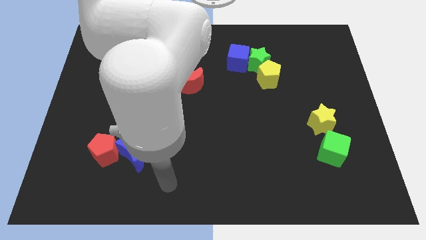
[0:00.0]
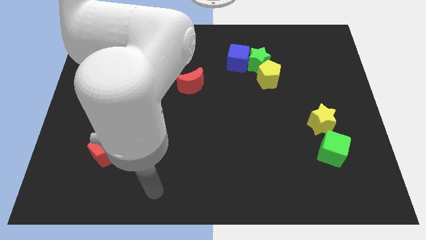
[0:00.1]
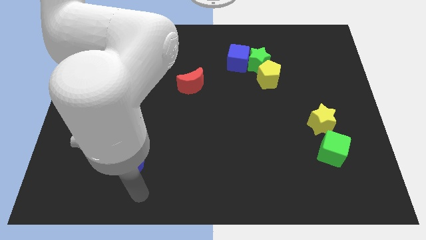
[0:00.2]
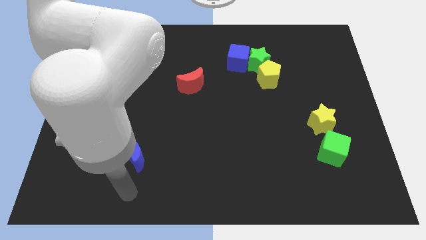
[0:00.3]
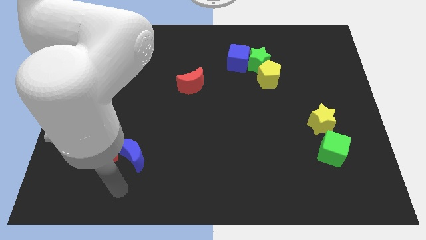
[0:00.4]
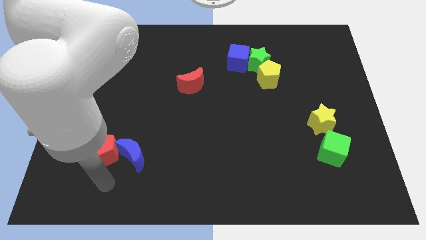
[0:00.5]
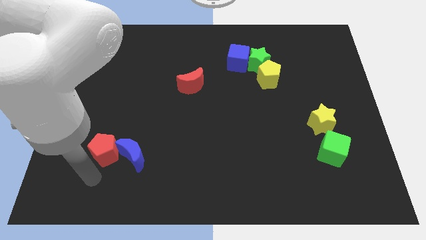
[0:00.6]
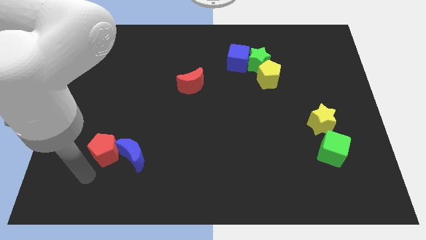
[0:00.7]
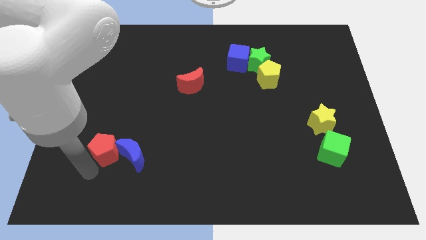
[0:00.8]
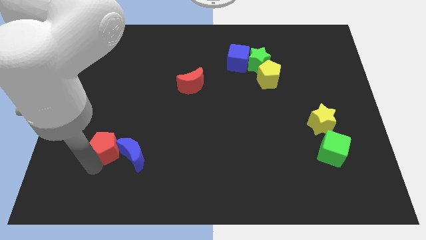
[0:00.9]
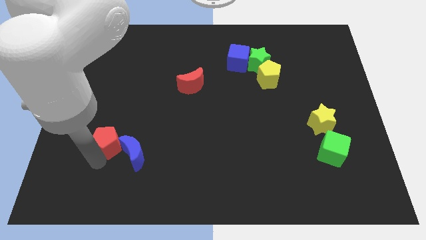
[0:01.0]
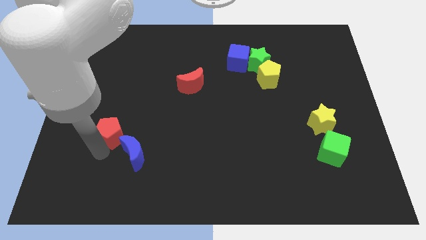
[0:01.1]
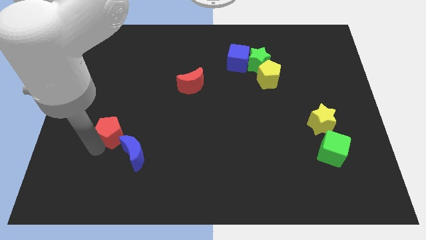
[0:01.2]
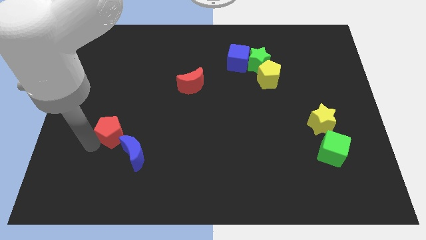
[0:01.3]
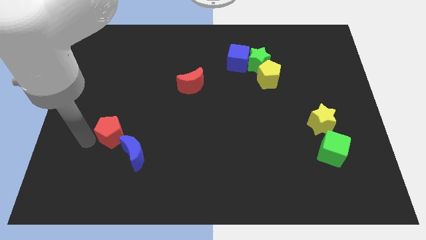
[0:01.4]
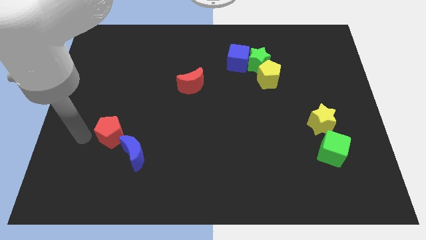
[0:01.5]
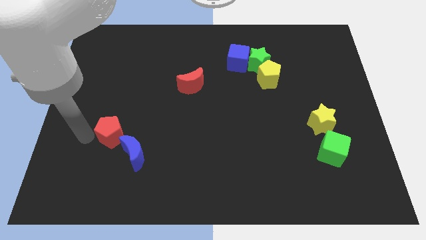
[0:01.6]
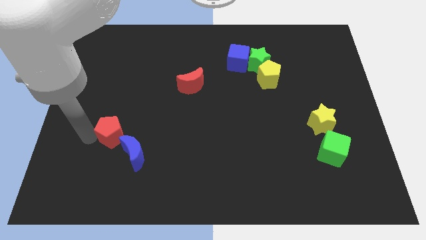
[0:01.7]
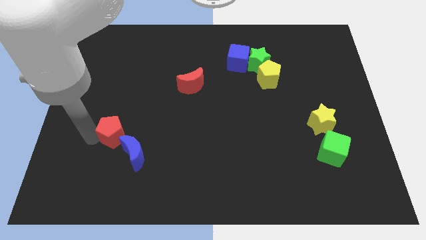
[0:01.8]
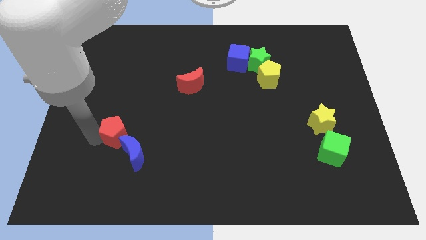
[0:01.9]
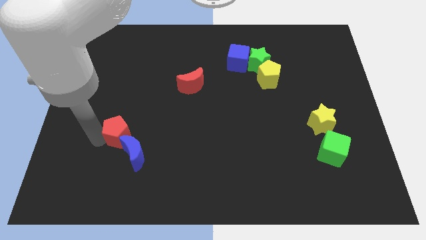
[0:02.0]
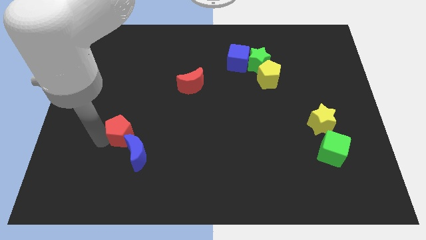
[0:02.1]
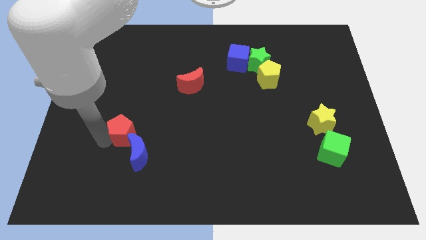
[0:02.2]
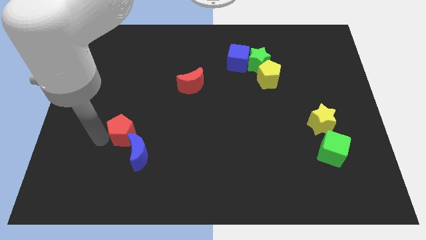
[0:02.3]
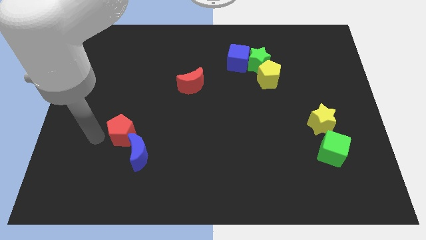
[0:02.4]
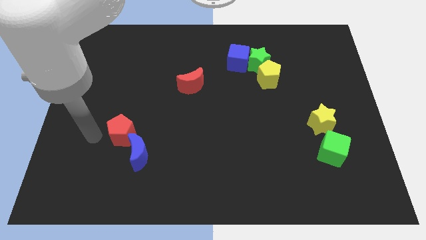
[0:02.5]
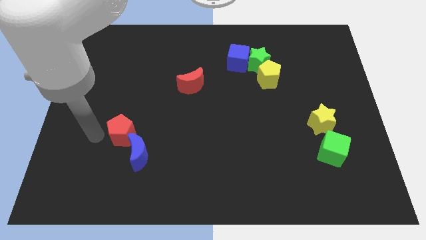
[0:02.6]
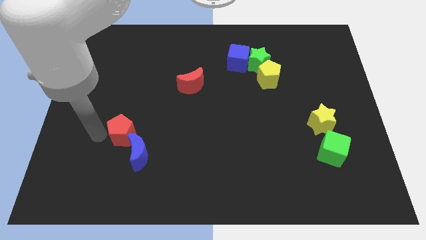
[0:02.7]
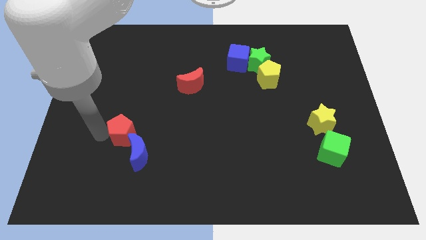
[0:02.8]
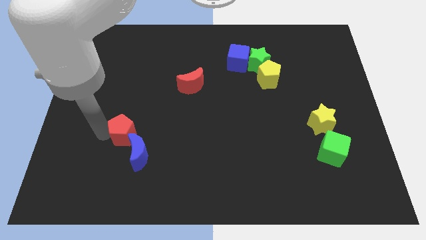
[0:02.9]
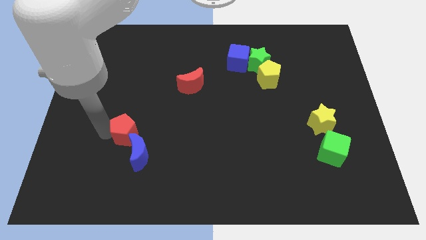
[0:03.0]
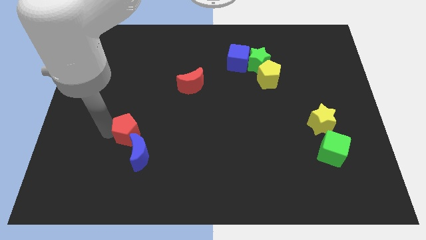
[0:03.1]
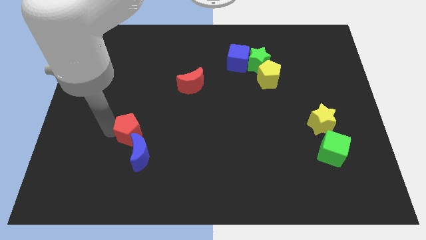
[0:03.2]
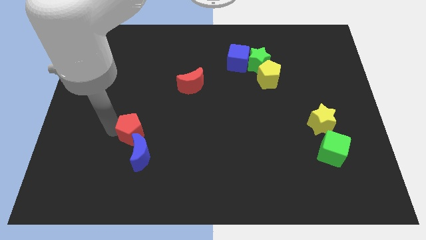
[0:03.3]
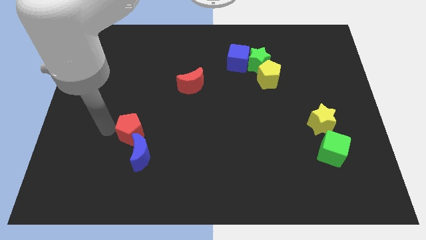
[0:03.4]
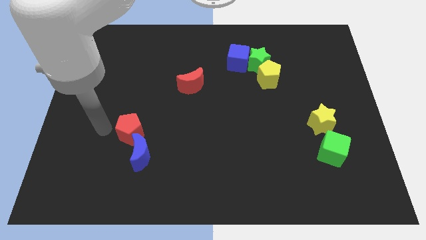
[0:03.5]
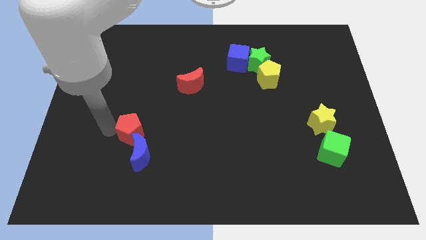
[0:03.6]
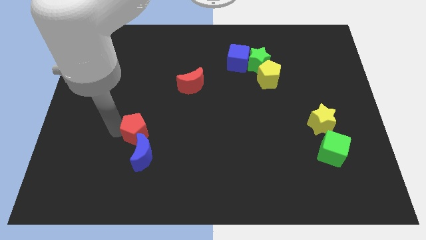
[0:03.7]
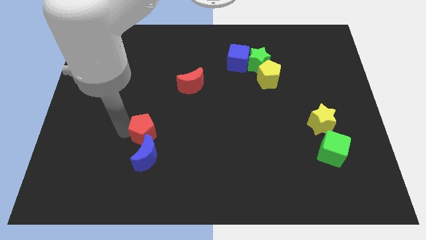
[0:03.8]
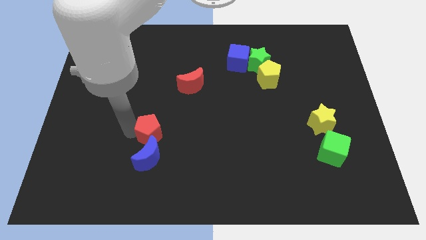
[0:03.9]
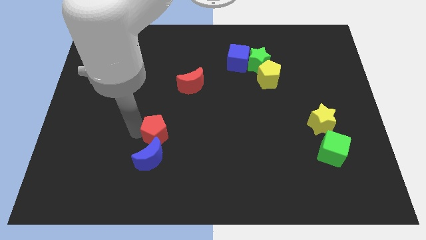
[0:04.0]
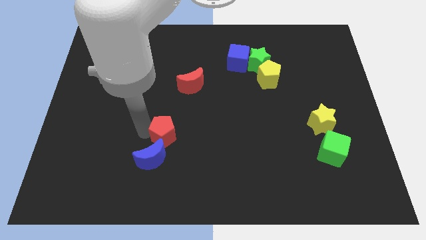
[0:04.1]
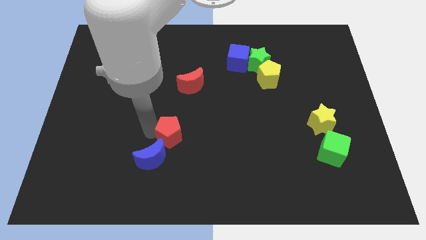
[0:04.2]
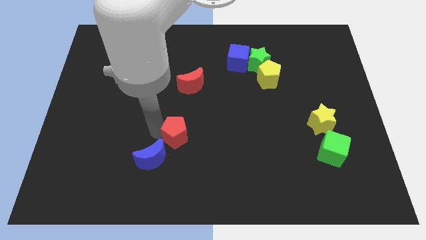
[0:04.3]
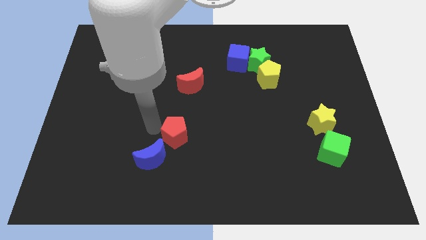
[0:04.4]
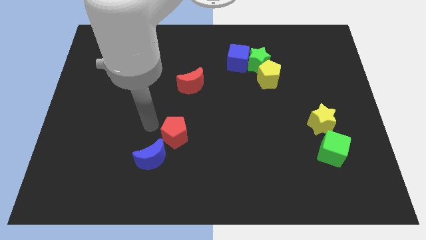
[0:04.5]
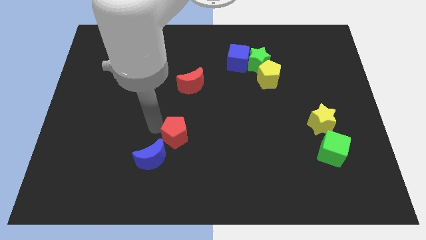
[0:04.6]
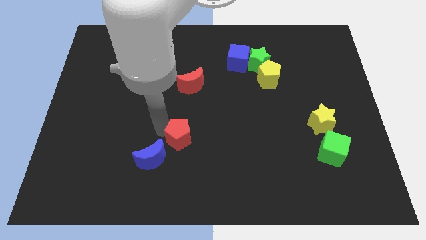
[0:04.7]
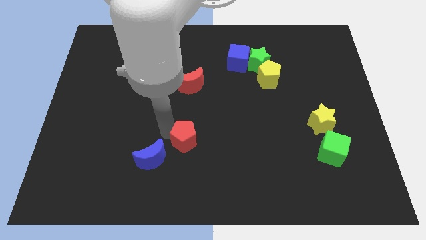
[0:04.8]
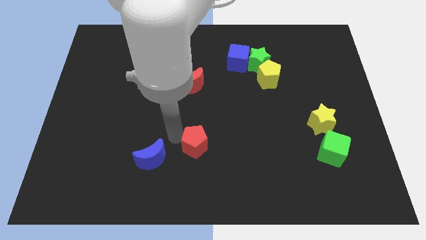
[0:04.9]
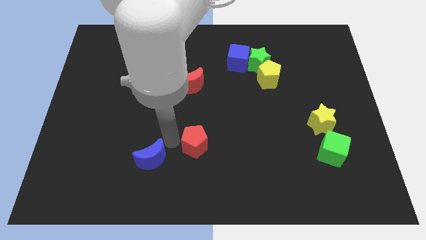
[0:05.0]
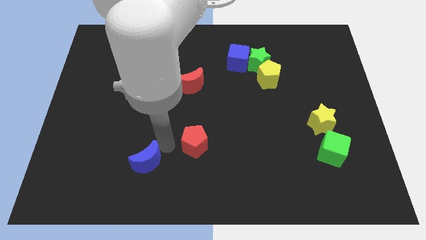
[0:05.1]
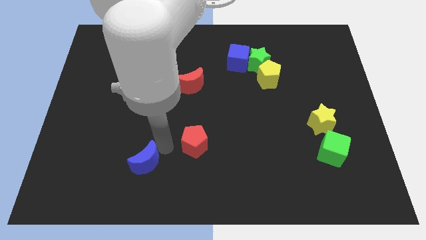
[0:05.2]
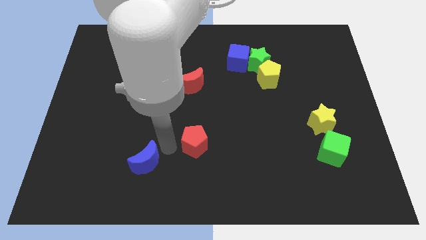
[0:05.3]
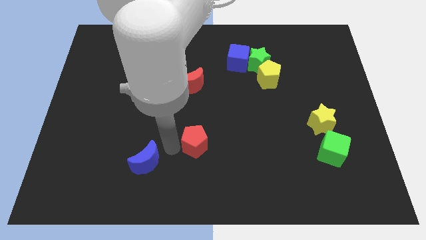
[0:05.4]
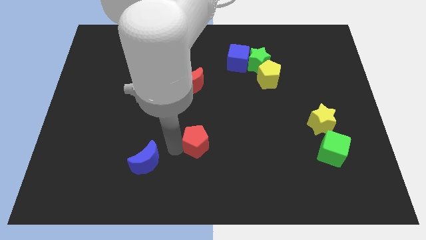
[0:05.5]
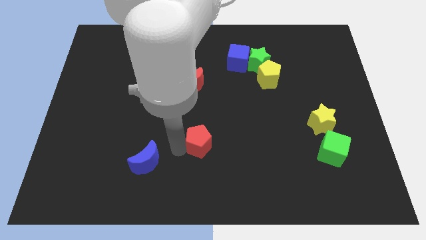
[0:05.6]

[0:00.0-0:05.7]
push the red pentagon right

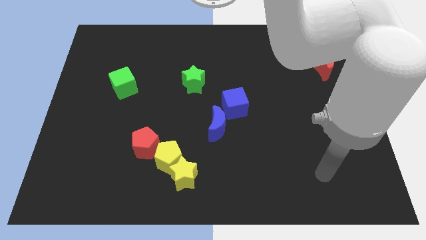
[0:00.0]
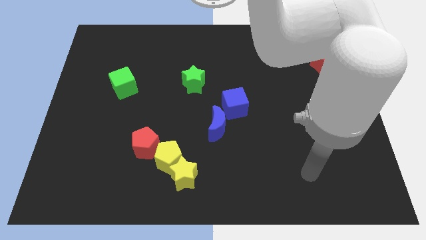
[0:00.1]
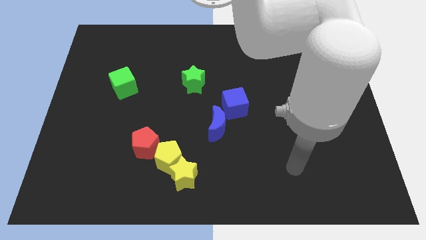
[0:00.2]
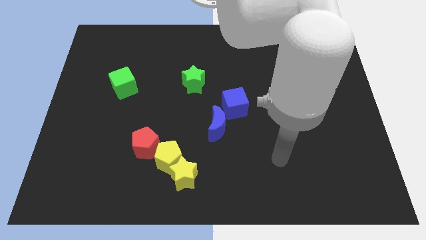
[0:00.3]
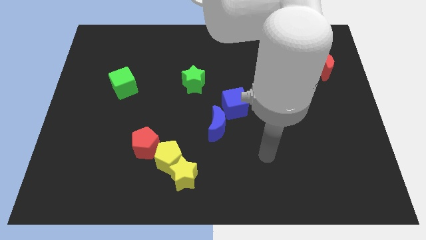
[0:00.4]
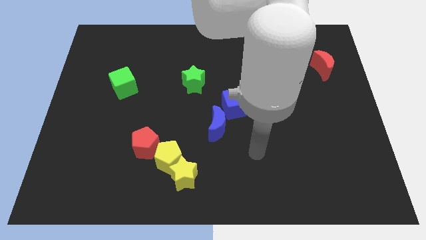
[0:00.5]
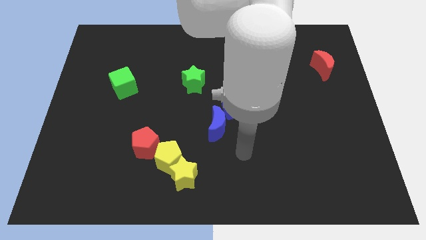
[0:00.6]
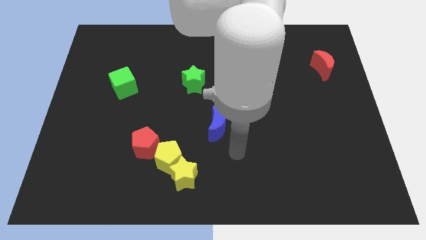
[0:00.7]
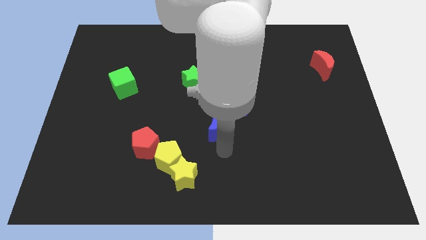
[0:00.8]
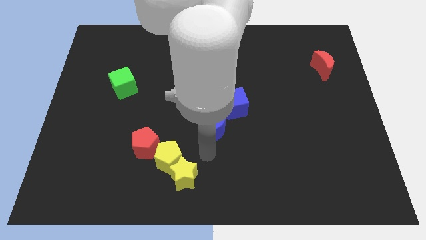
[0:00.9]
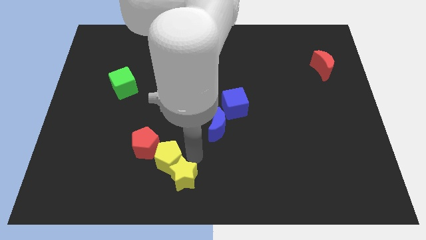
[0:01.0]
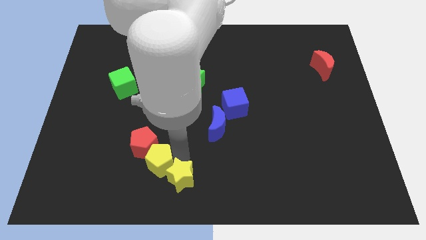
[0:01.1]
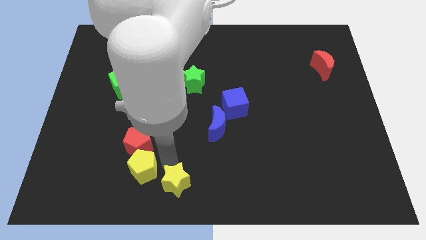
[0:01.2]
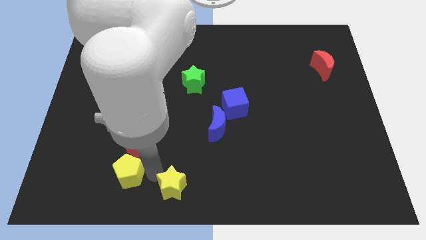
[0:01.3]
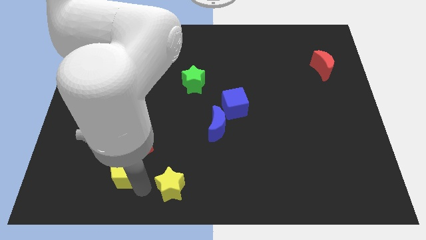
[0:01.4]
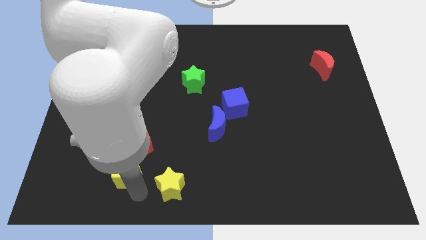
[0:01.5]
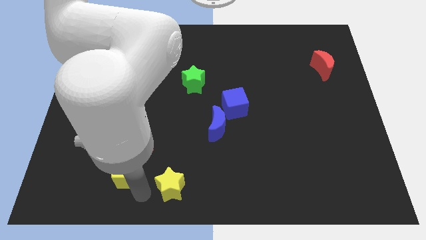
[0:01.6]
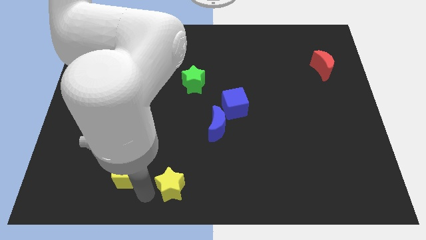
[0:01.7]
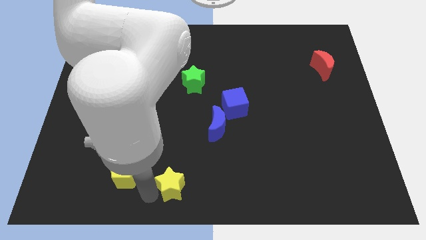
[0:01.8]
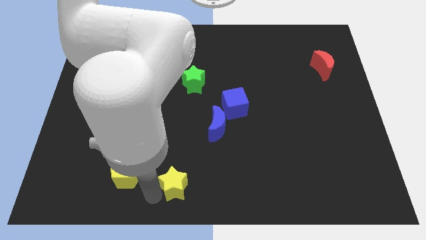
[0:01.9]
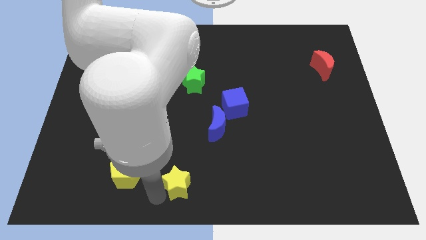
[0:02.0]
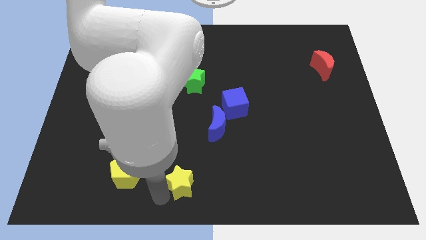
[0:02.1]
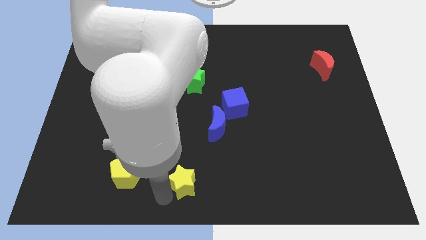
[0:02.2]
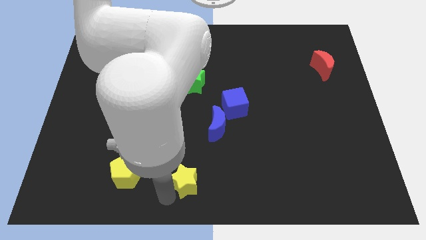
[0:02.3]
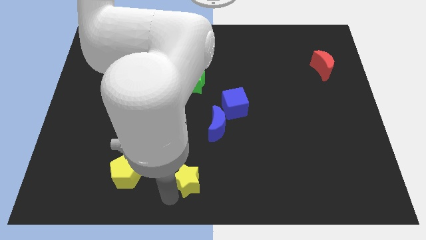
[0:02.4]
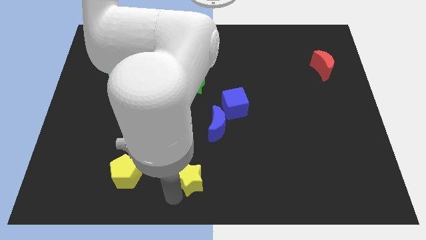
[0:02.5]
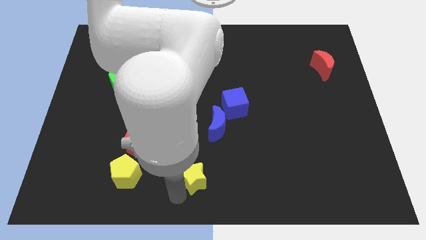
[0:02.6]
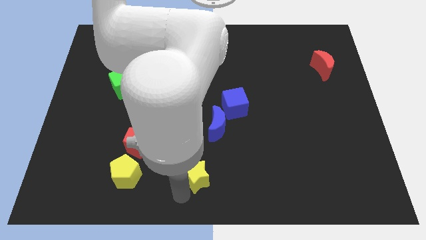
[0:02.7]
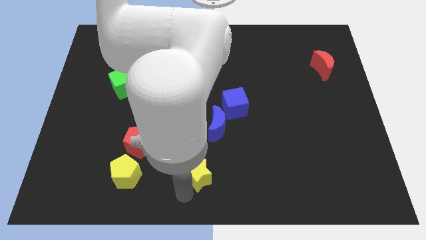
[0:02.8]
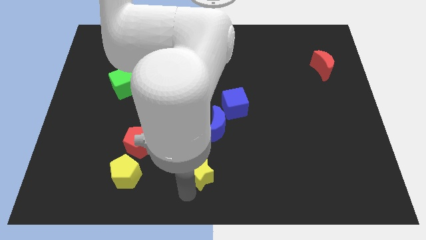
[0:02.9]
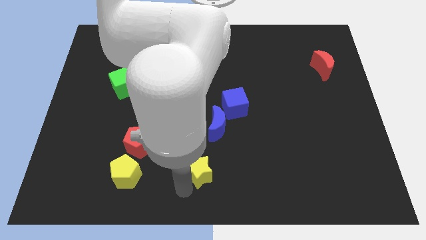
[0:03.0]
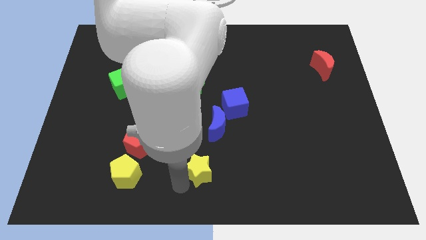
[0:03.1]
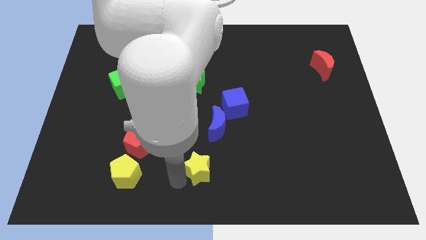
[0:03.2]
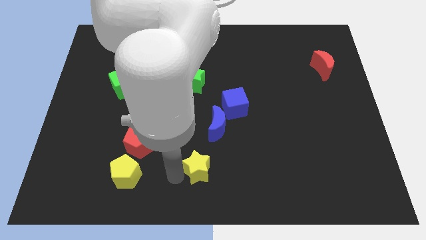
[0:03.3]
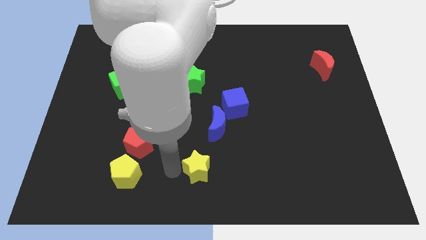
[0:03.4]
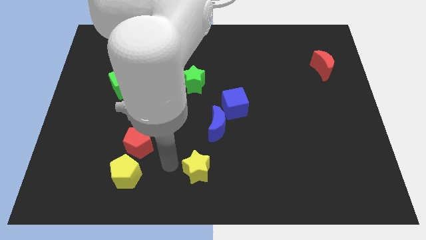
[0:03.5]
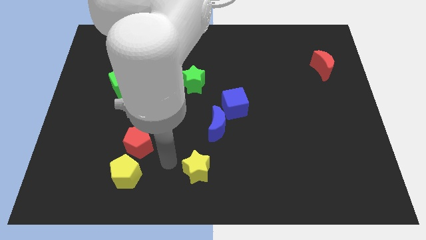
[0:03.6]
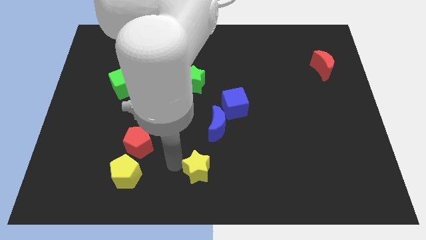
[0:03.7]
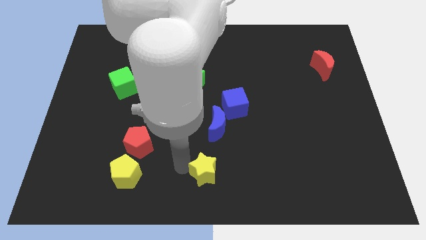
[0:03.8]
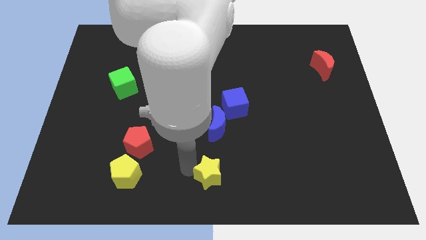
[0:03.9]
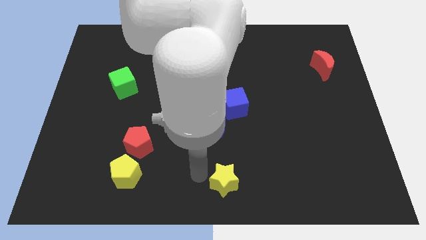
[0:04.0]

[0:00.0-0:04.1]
slide the yellow star a bit right
